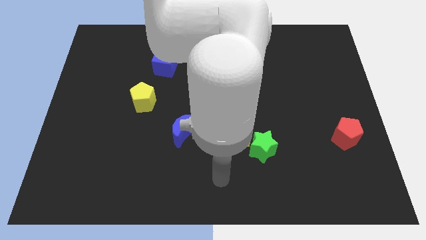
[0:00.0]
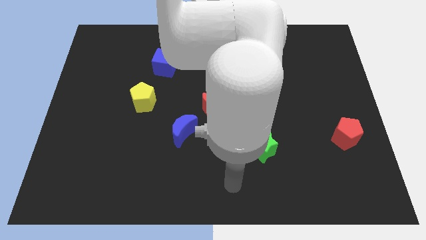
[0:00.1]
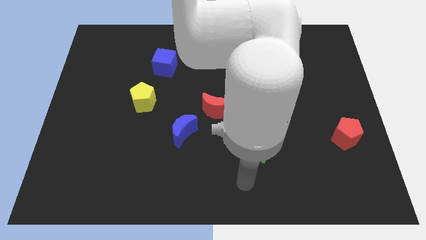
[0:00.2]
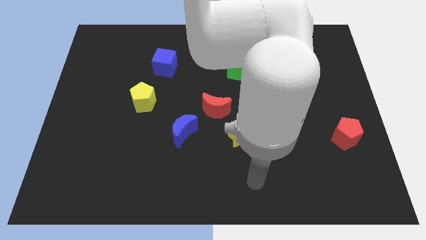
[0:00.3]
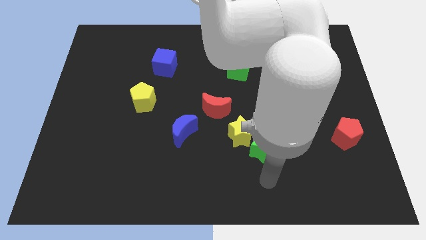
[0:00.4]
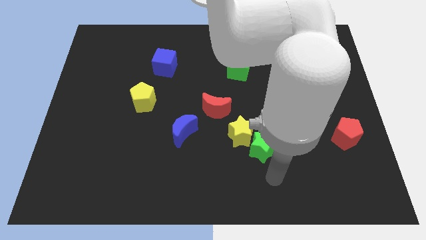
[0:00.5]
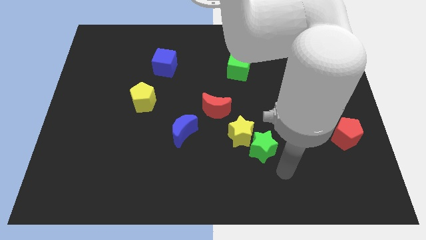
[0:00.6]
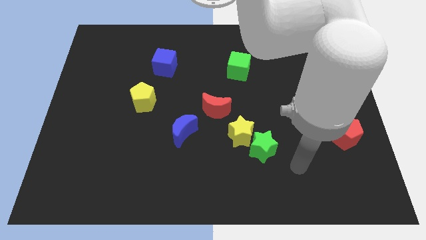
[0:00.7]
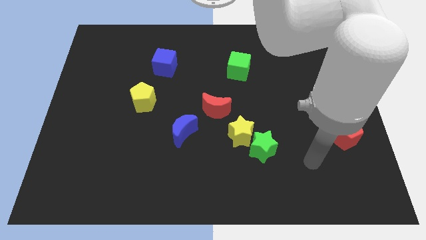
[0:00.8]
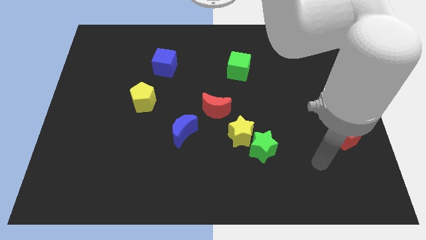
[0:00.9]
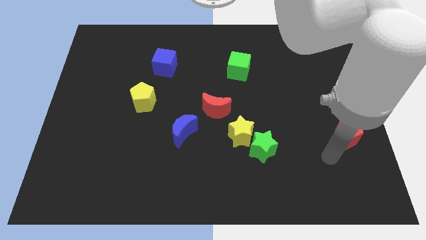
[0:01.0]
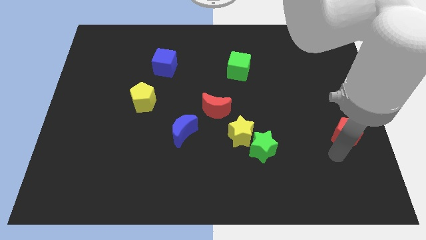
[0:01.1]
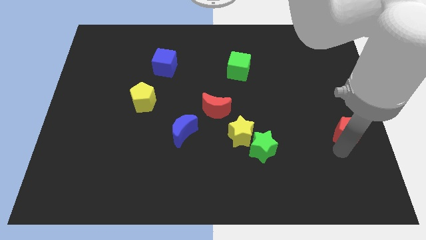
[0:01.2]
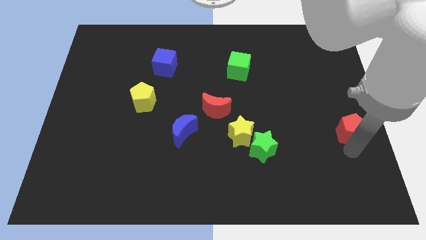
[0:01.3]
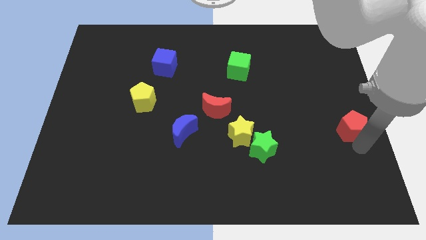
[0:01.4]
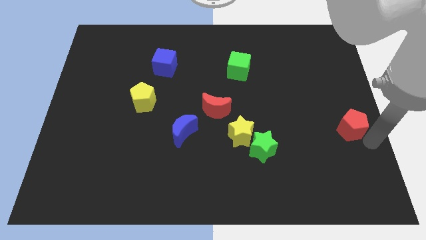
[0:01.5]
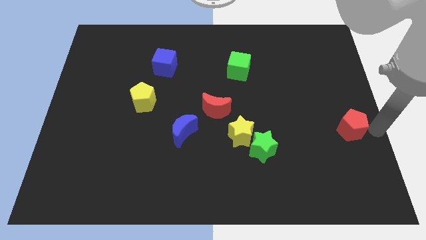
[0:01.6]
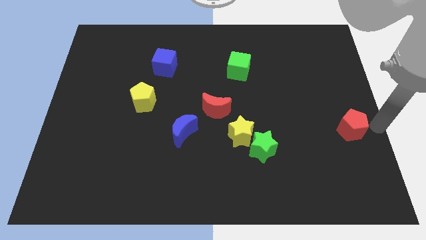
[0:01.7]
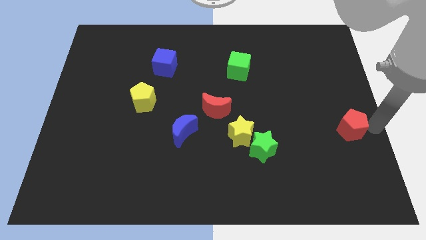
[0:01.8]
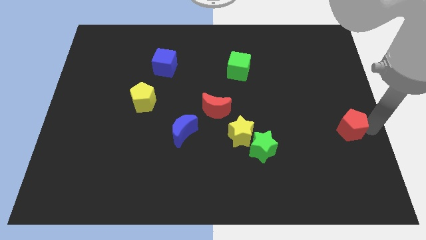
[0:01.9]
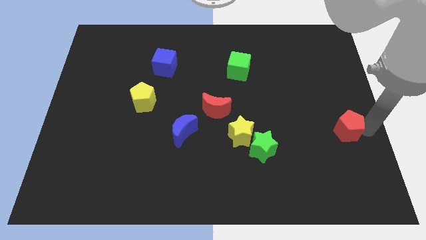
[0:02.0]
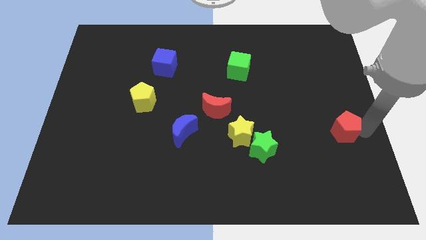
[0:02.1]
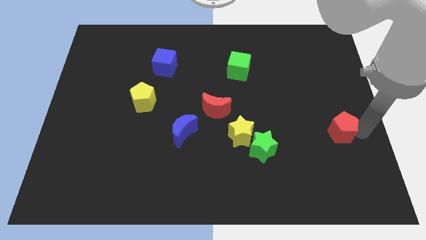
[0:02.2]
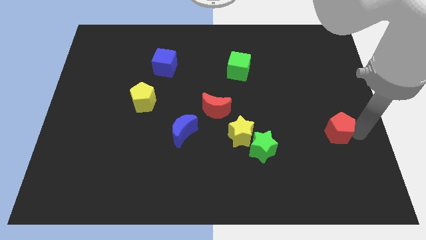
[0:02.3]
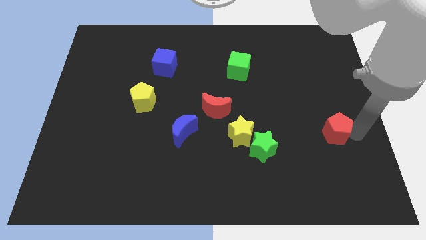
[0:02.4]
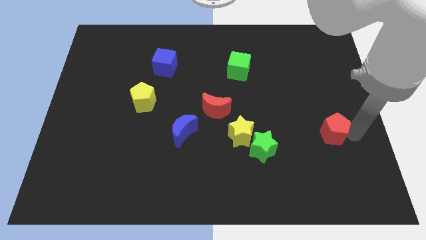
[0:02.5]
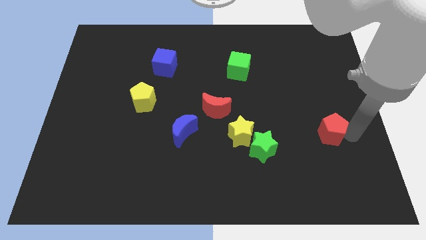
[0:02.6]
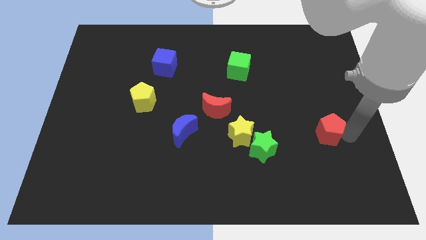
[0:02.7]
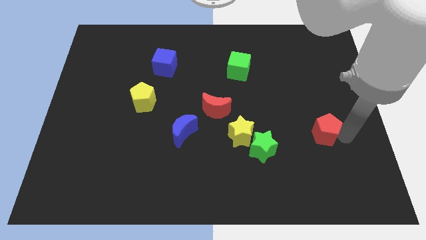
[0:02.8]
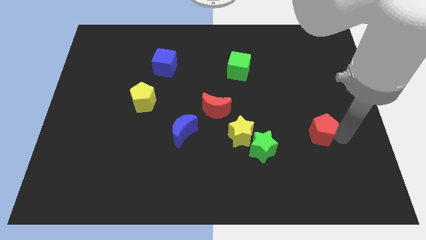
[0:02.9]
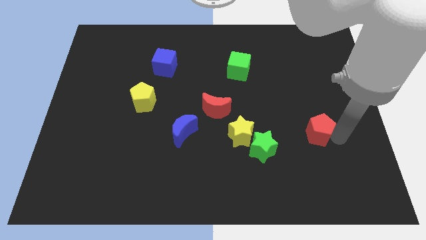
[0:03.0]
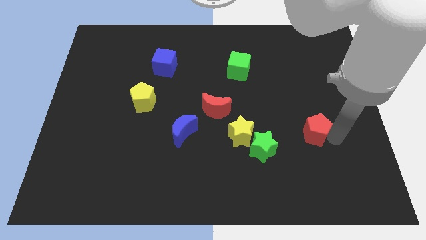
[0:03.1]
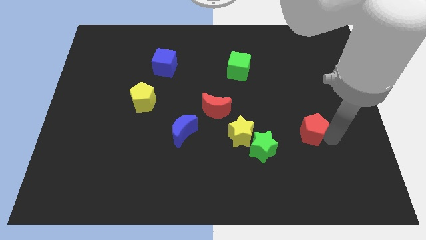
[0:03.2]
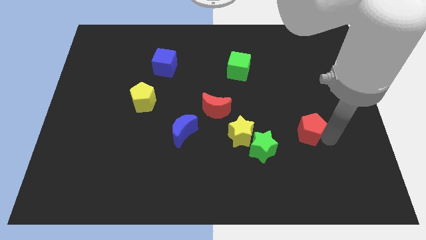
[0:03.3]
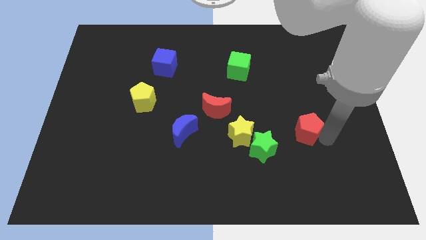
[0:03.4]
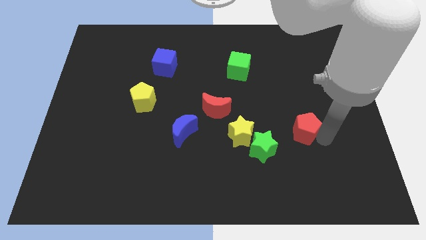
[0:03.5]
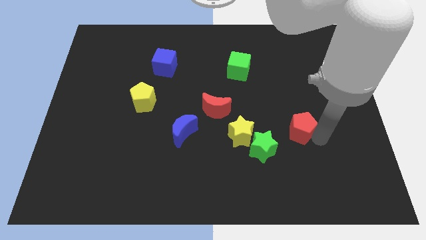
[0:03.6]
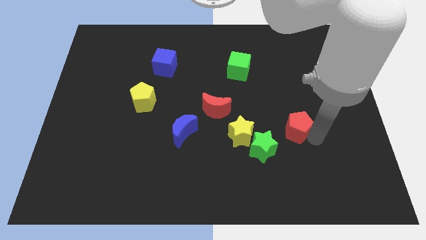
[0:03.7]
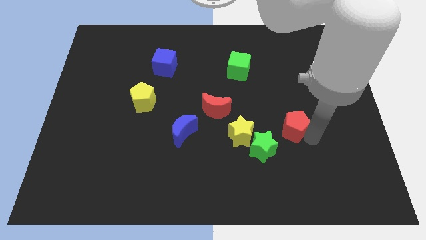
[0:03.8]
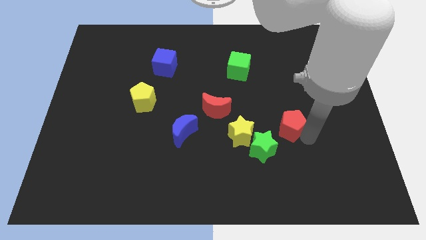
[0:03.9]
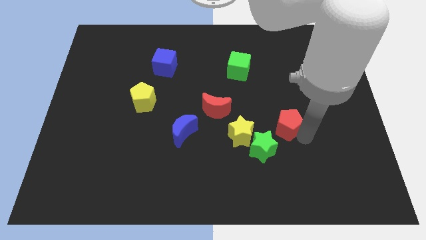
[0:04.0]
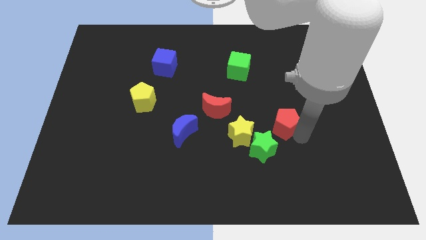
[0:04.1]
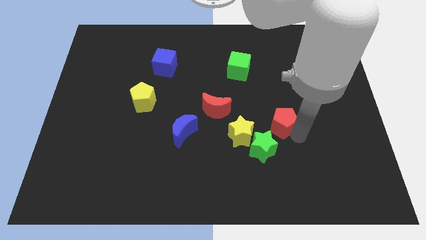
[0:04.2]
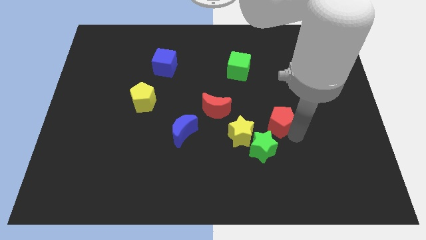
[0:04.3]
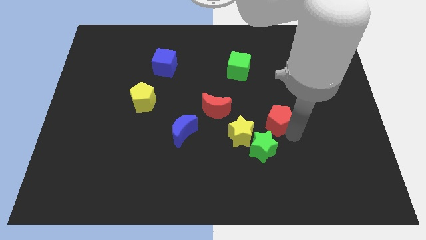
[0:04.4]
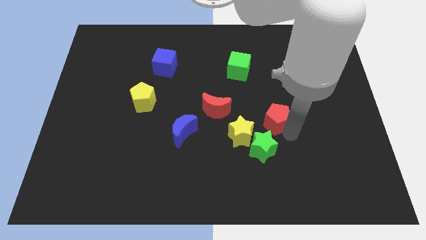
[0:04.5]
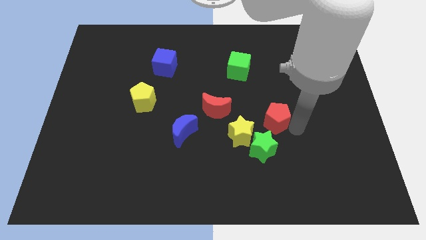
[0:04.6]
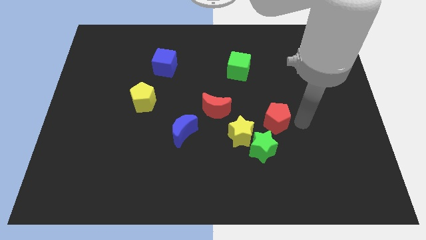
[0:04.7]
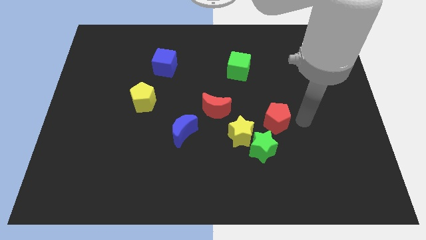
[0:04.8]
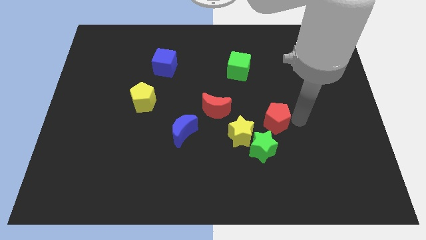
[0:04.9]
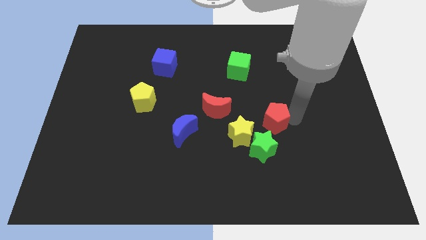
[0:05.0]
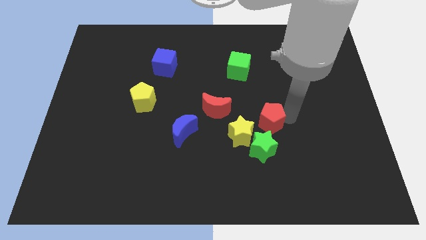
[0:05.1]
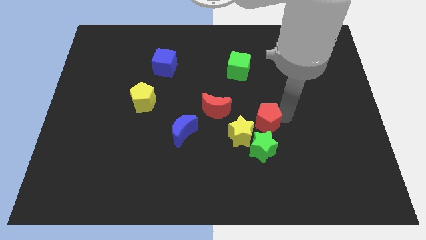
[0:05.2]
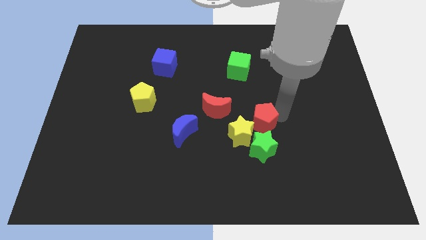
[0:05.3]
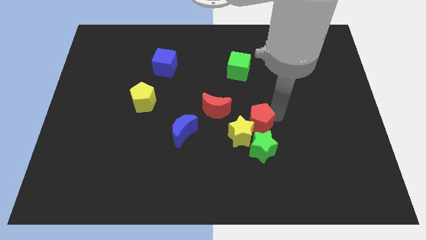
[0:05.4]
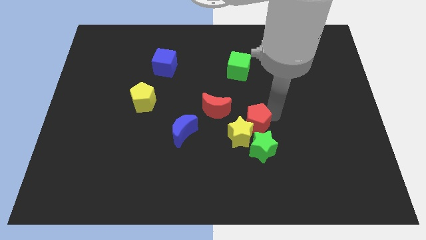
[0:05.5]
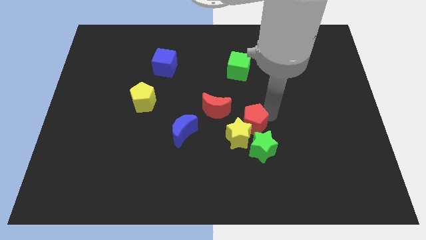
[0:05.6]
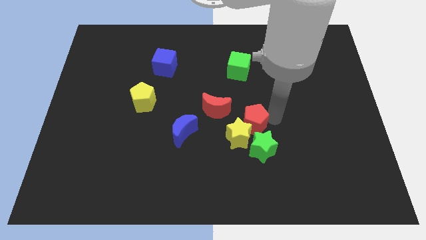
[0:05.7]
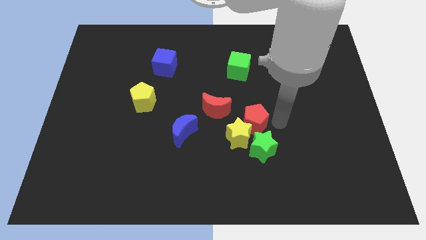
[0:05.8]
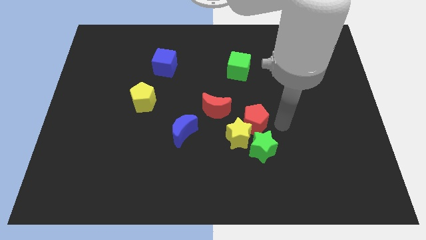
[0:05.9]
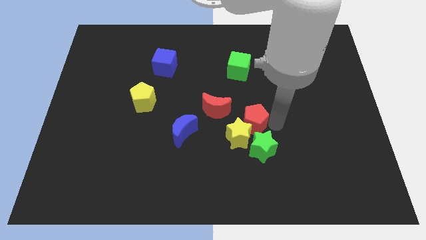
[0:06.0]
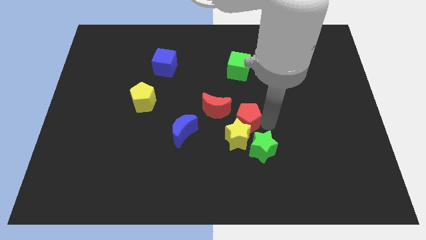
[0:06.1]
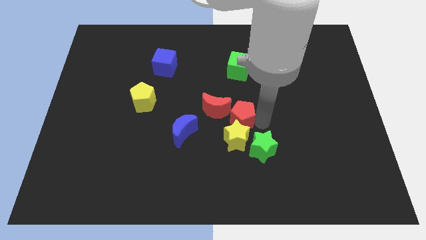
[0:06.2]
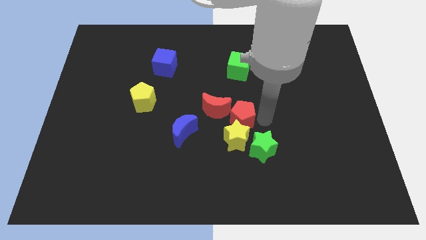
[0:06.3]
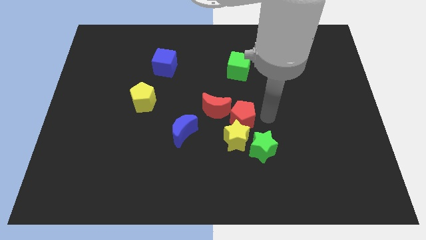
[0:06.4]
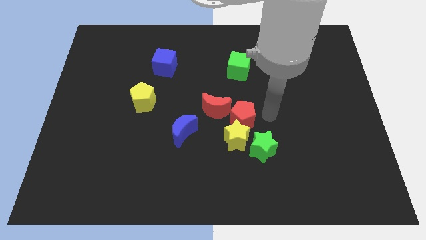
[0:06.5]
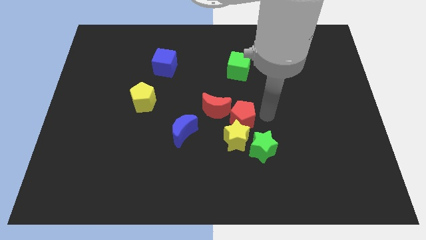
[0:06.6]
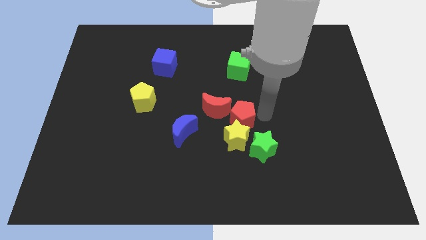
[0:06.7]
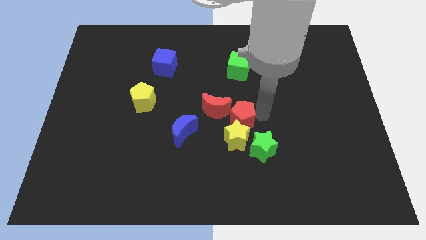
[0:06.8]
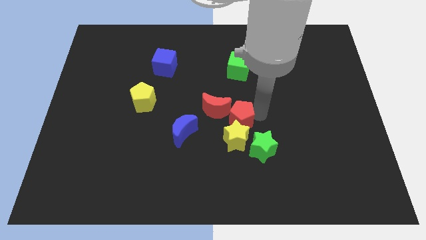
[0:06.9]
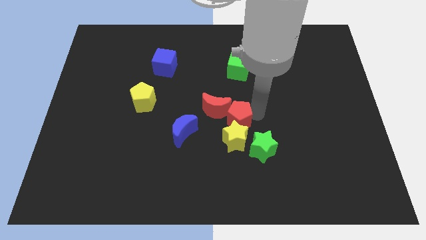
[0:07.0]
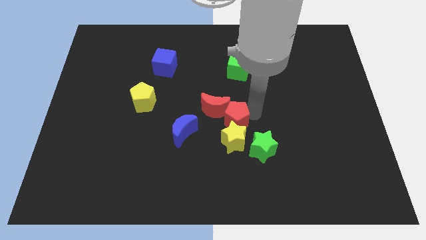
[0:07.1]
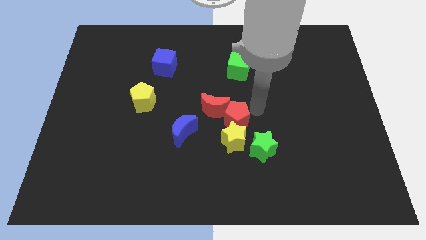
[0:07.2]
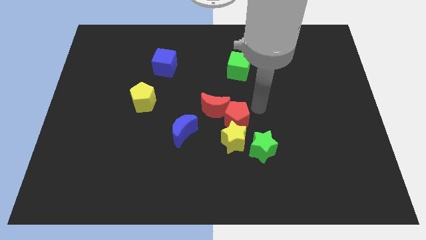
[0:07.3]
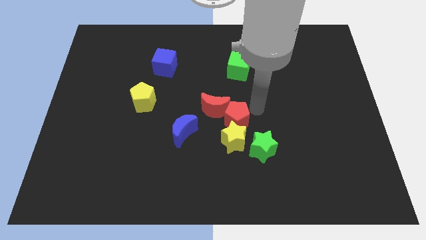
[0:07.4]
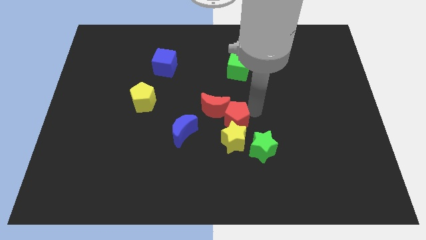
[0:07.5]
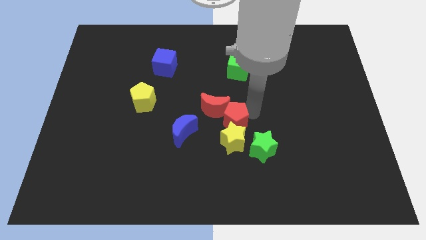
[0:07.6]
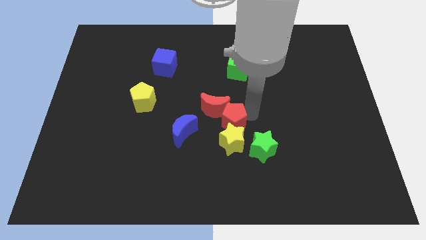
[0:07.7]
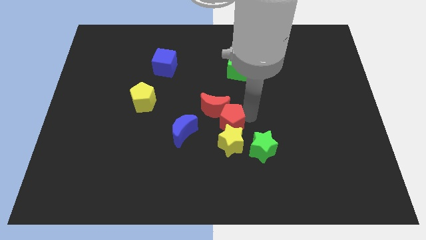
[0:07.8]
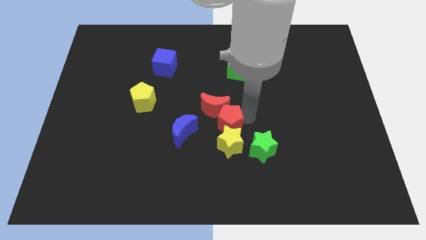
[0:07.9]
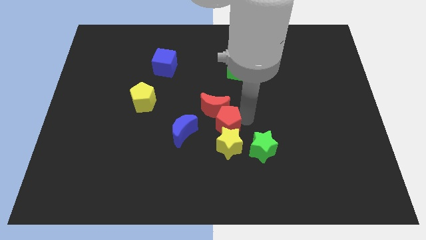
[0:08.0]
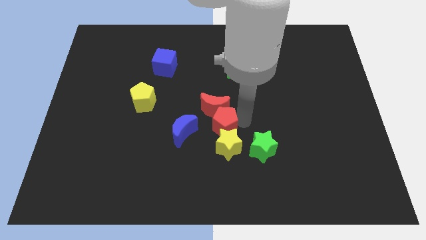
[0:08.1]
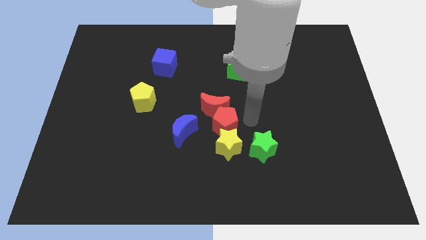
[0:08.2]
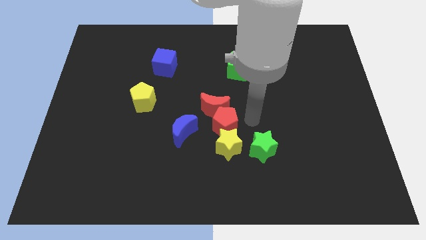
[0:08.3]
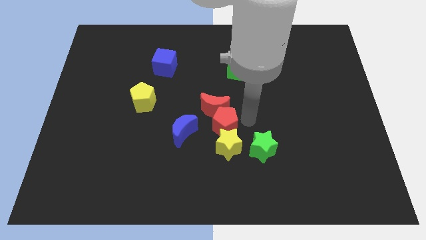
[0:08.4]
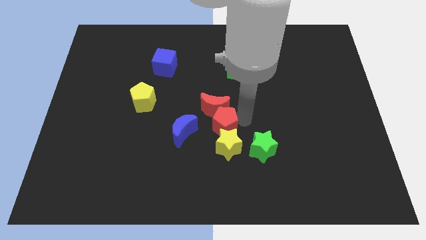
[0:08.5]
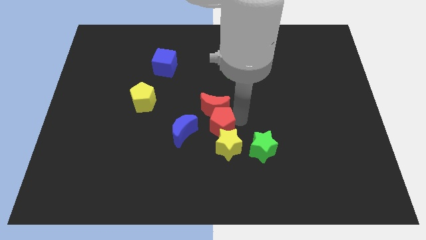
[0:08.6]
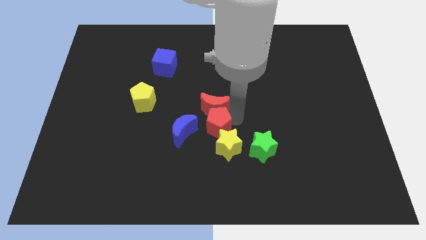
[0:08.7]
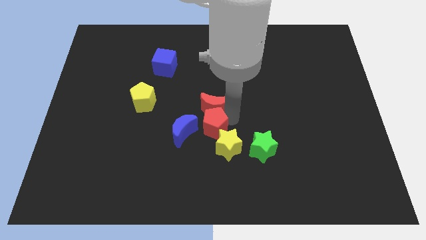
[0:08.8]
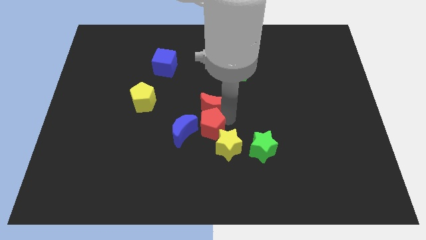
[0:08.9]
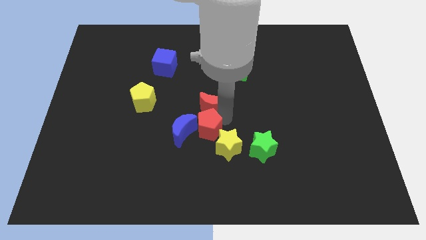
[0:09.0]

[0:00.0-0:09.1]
slide the red pentagon close to the blue moon
